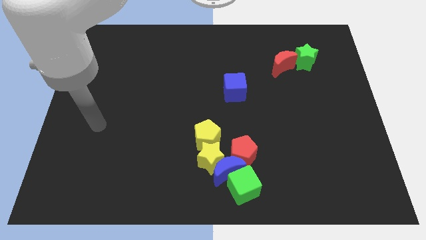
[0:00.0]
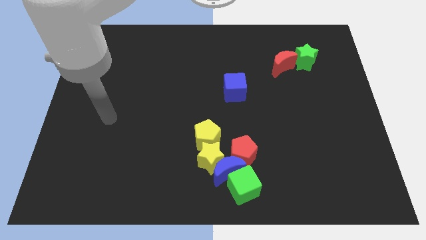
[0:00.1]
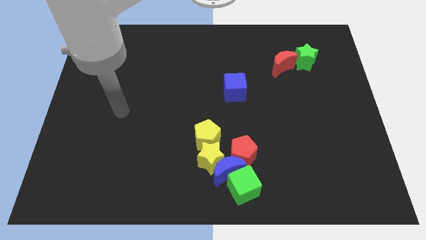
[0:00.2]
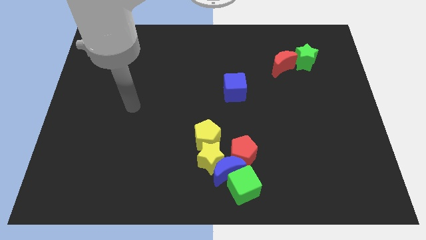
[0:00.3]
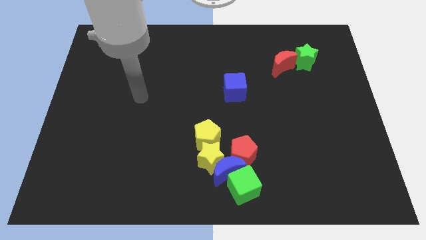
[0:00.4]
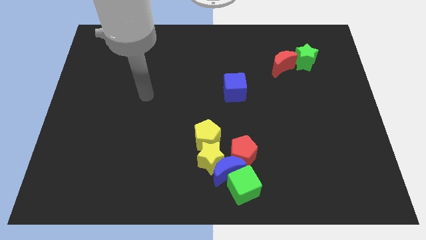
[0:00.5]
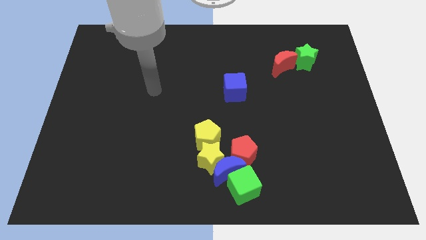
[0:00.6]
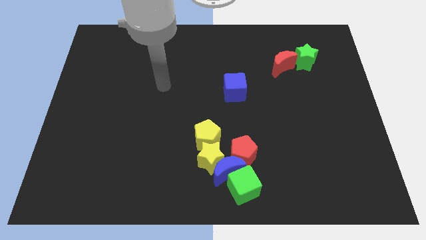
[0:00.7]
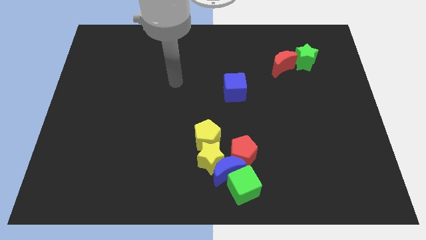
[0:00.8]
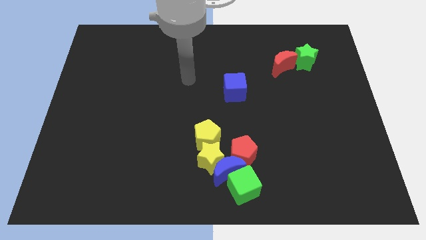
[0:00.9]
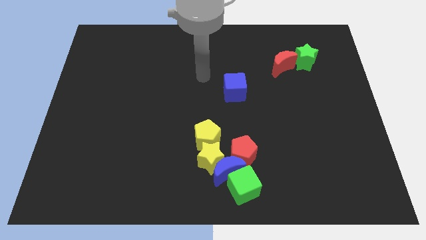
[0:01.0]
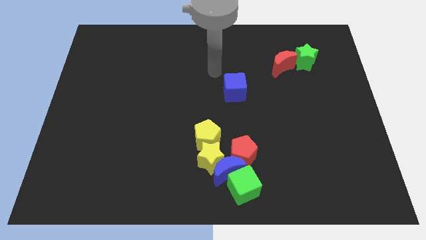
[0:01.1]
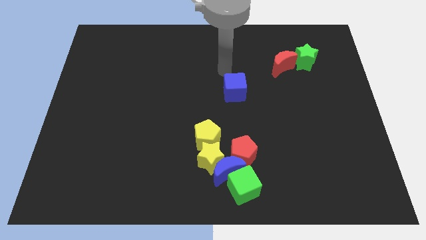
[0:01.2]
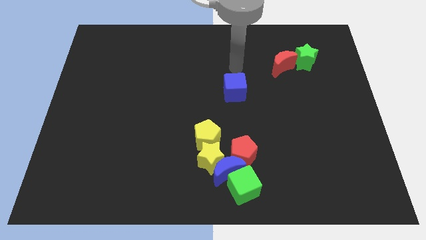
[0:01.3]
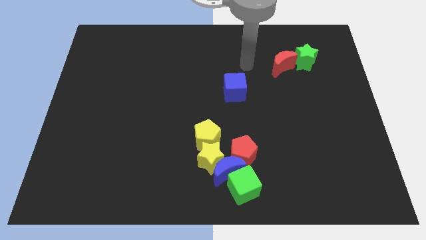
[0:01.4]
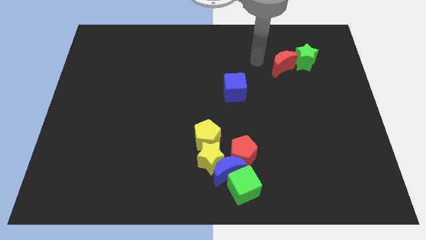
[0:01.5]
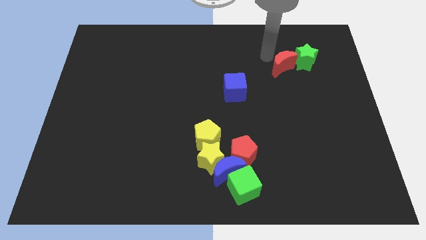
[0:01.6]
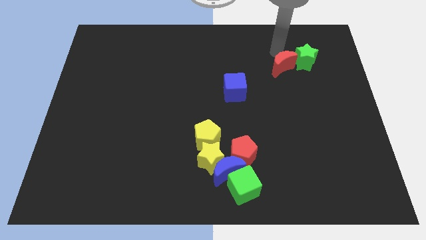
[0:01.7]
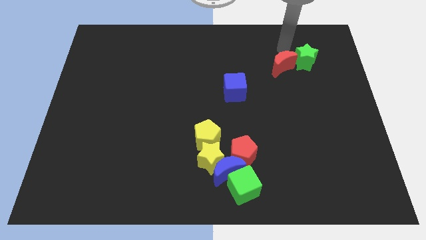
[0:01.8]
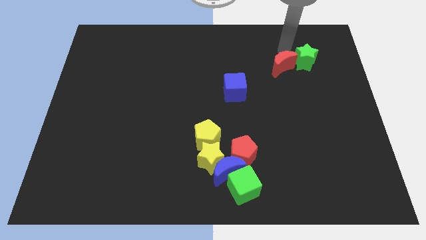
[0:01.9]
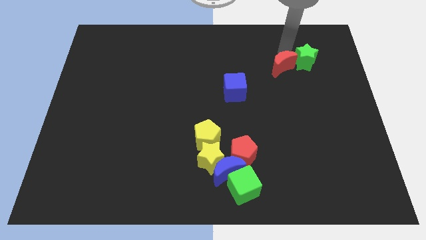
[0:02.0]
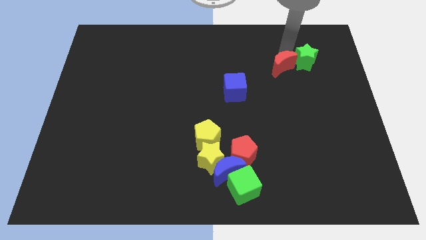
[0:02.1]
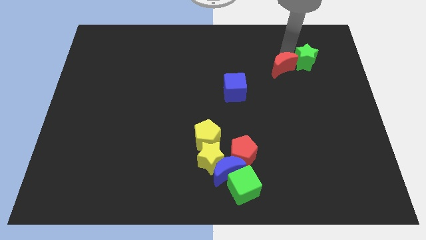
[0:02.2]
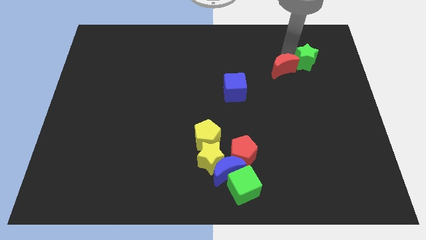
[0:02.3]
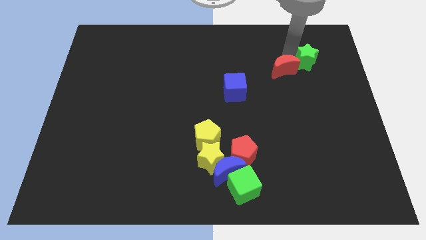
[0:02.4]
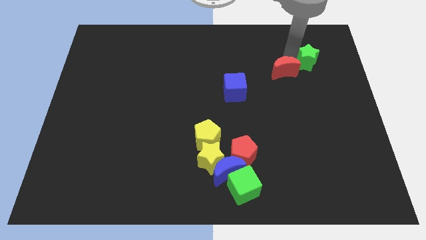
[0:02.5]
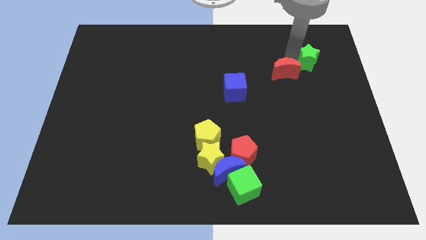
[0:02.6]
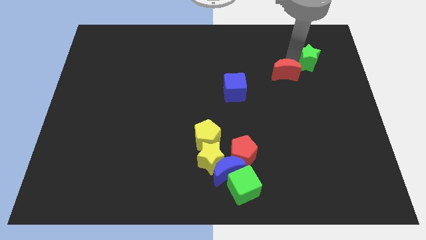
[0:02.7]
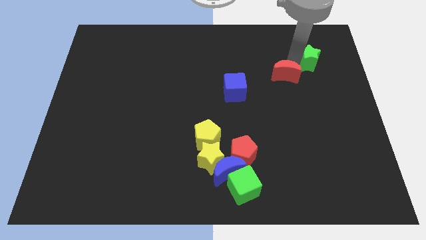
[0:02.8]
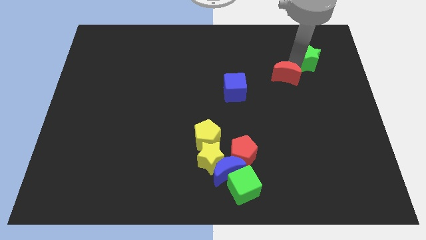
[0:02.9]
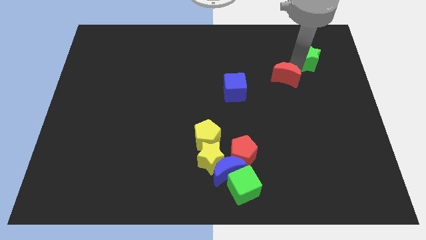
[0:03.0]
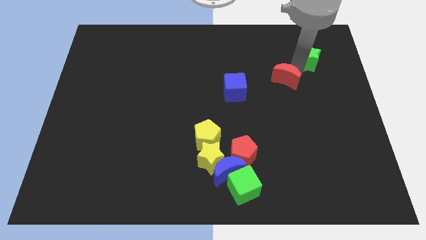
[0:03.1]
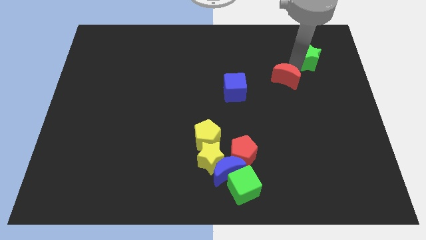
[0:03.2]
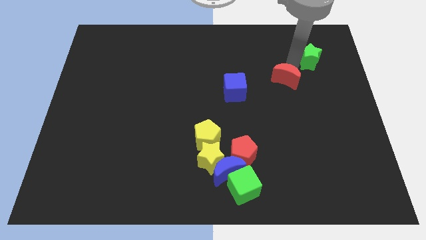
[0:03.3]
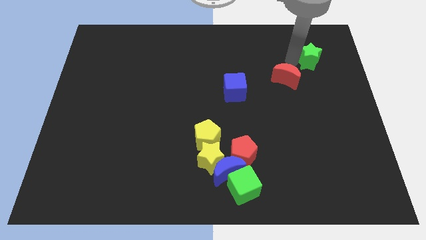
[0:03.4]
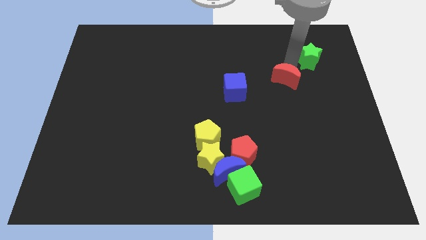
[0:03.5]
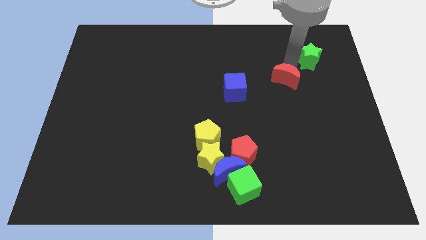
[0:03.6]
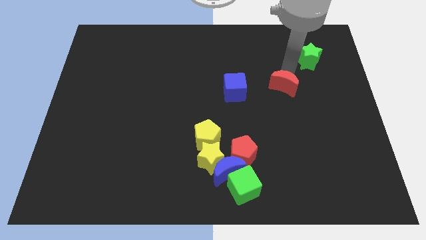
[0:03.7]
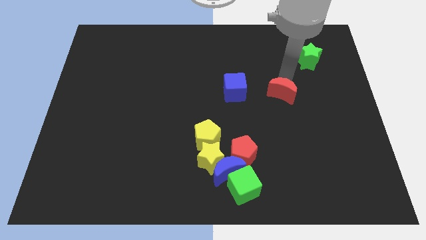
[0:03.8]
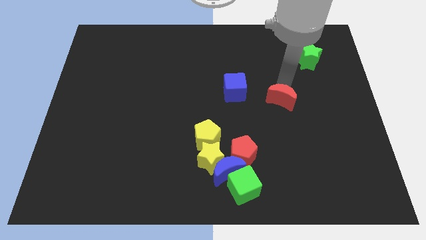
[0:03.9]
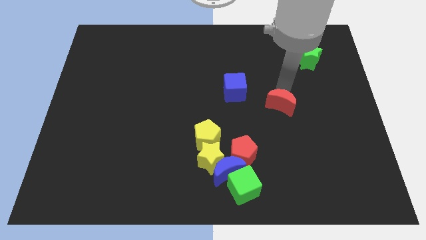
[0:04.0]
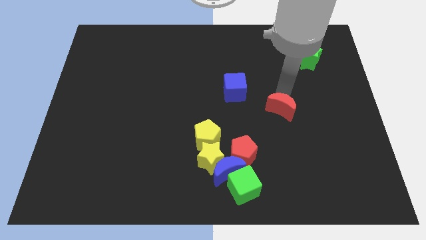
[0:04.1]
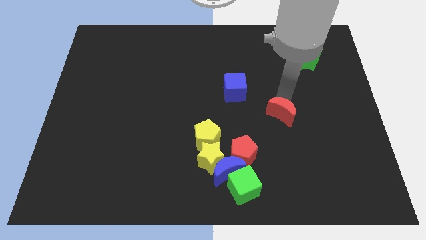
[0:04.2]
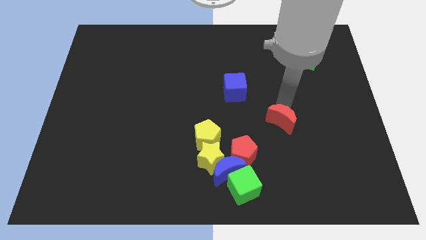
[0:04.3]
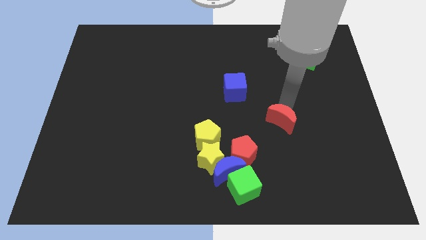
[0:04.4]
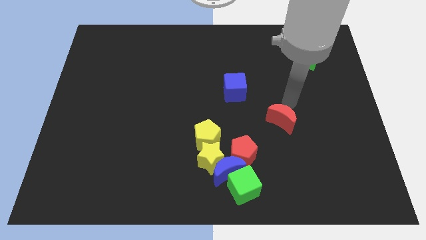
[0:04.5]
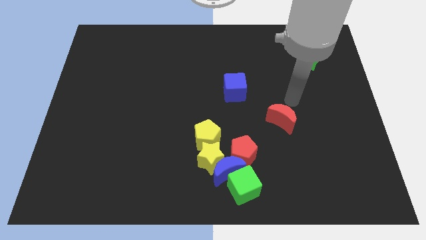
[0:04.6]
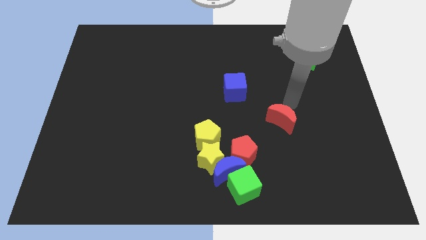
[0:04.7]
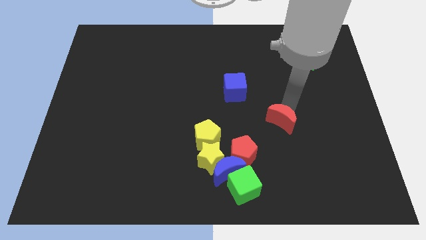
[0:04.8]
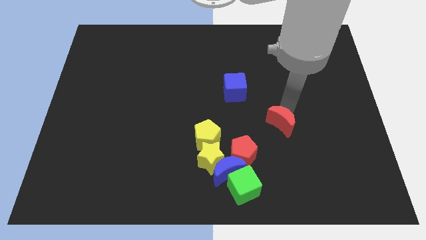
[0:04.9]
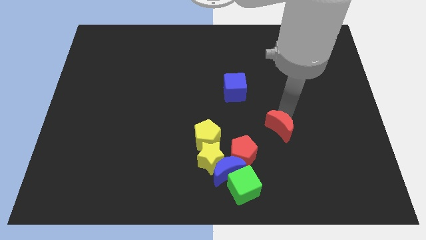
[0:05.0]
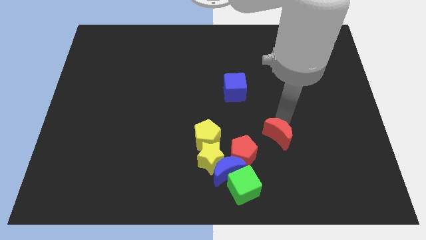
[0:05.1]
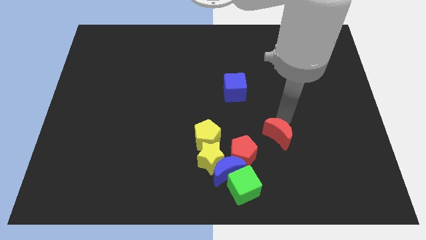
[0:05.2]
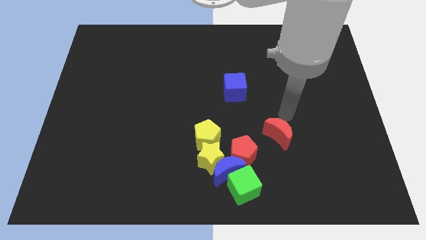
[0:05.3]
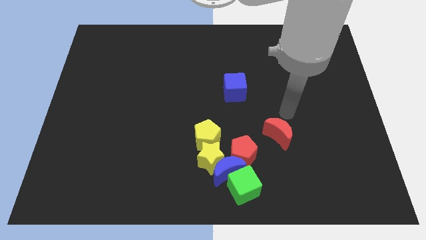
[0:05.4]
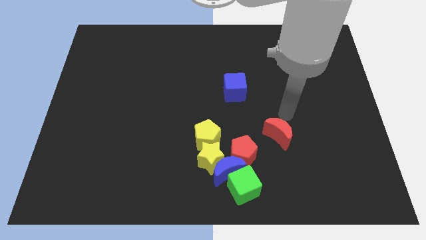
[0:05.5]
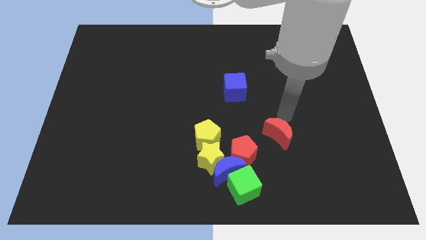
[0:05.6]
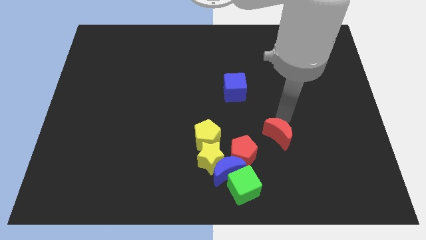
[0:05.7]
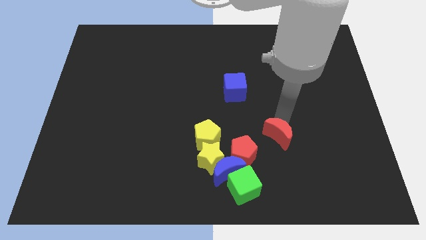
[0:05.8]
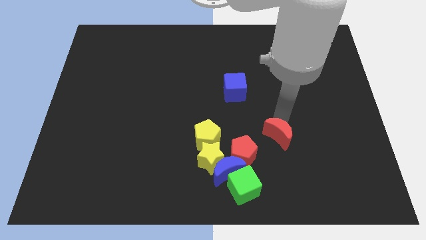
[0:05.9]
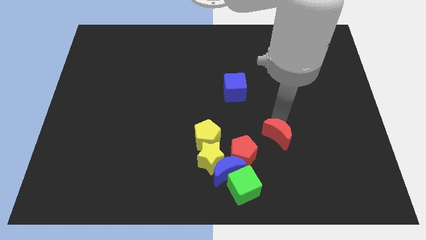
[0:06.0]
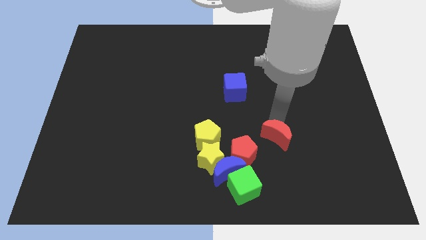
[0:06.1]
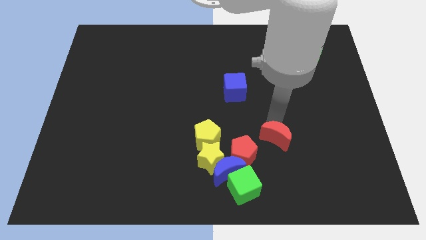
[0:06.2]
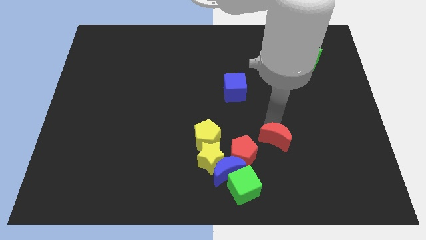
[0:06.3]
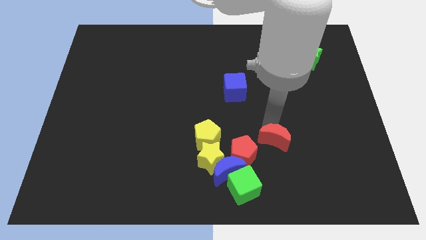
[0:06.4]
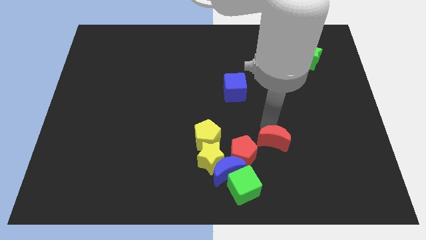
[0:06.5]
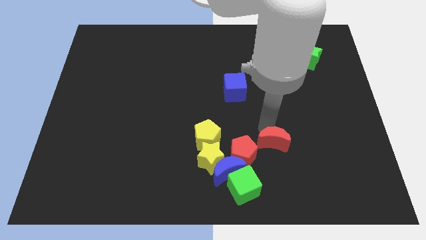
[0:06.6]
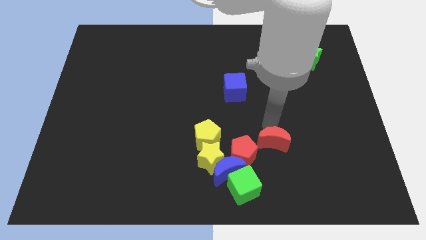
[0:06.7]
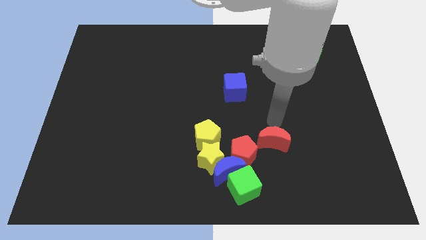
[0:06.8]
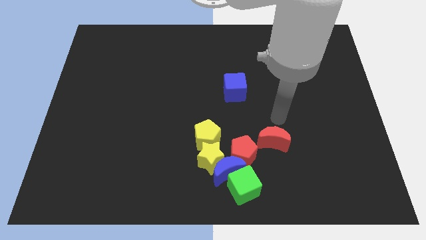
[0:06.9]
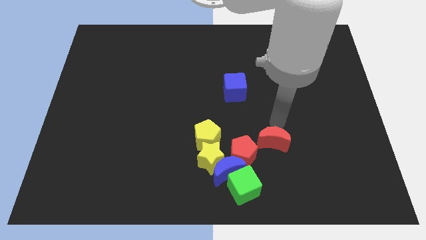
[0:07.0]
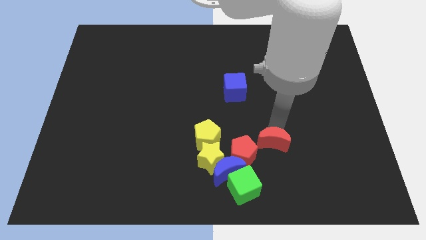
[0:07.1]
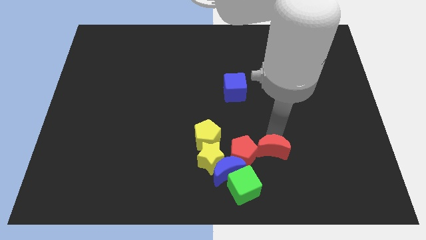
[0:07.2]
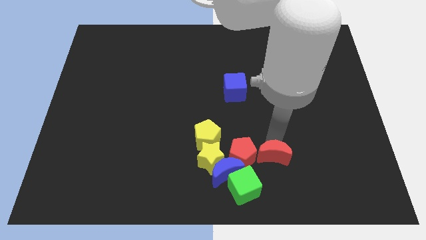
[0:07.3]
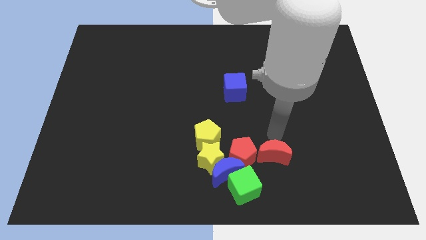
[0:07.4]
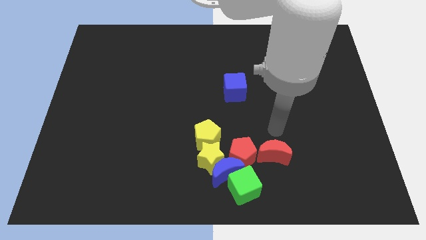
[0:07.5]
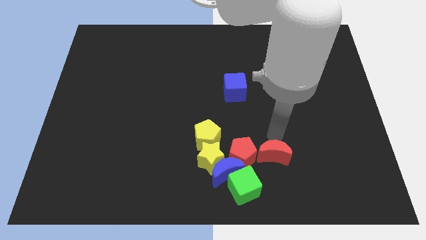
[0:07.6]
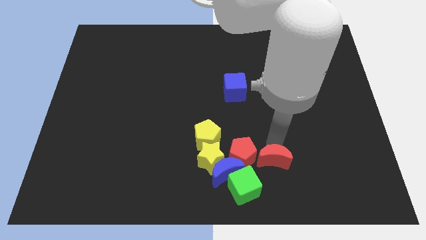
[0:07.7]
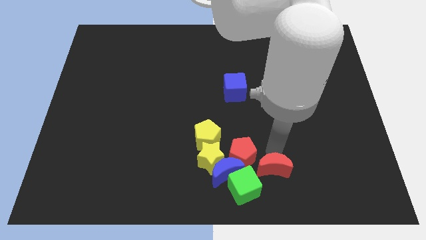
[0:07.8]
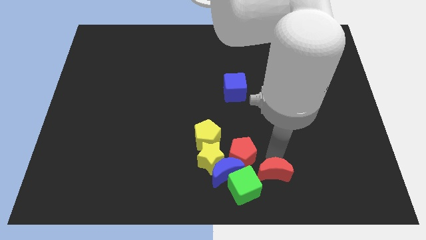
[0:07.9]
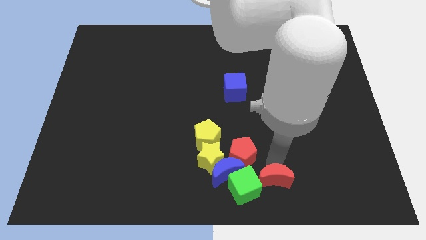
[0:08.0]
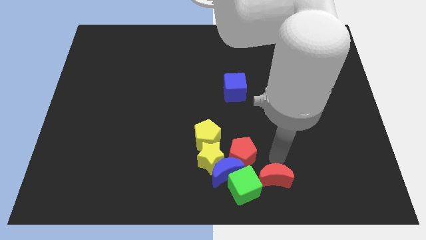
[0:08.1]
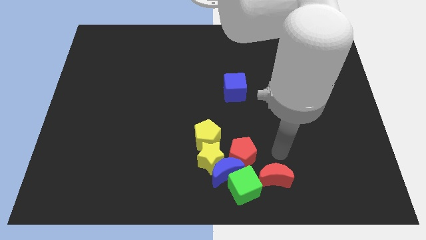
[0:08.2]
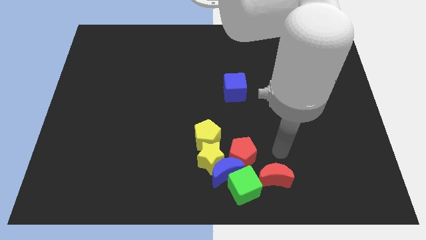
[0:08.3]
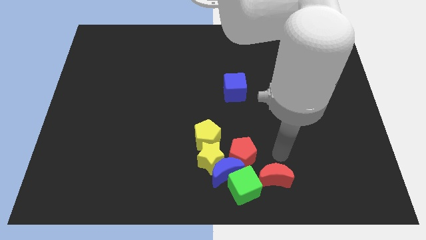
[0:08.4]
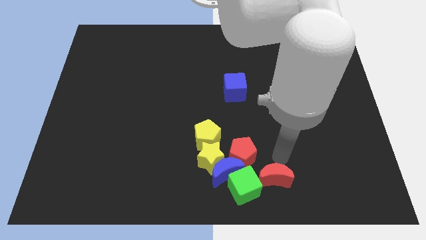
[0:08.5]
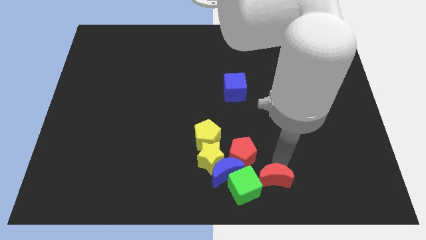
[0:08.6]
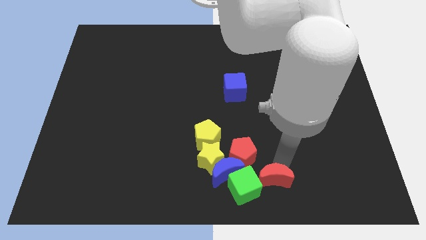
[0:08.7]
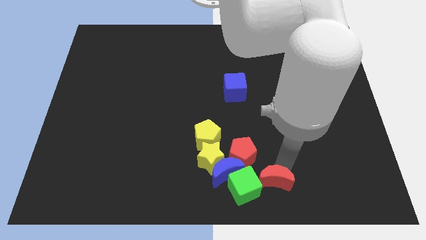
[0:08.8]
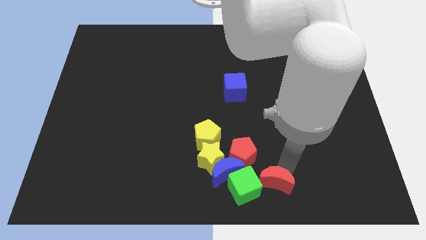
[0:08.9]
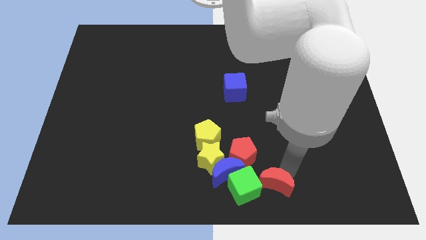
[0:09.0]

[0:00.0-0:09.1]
put the red moon to the bottom
